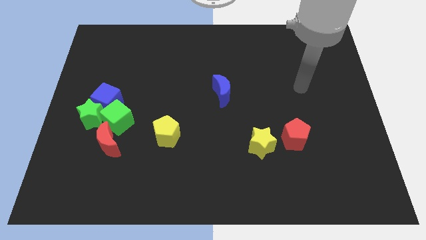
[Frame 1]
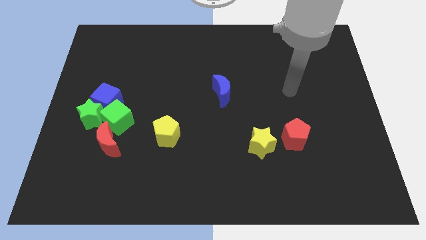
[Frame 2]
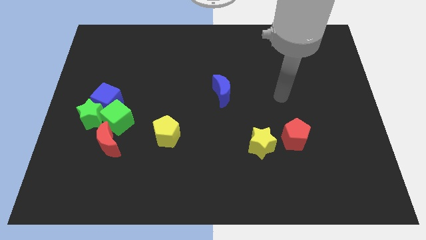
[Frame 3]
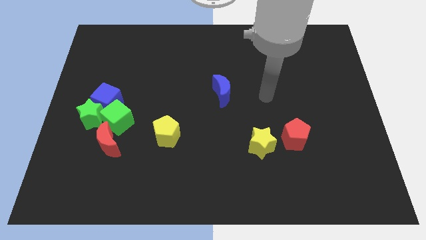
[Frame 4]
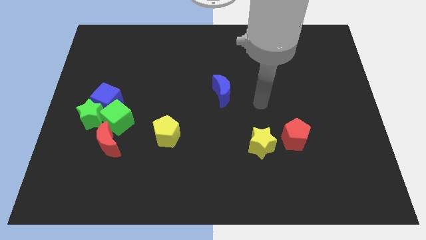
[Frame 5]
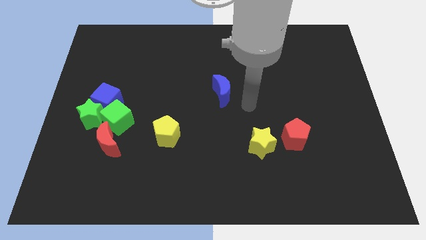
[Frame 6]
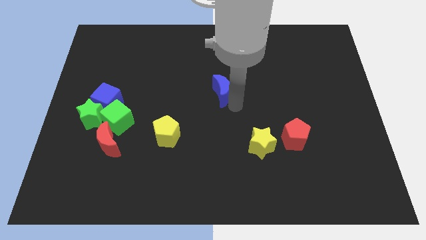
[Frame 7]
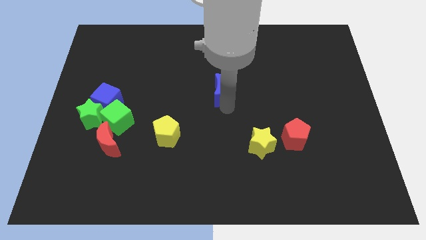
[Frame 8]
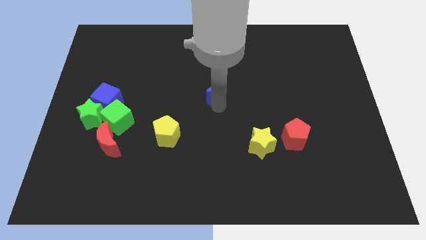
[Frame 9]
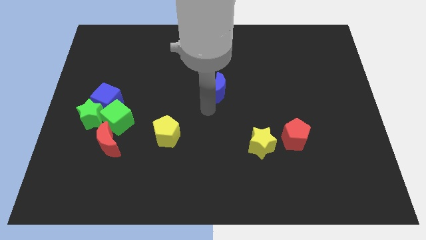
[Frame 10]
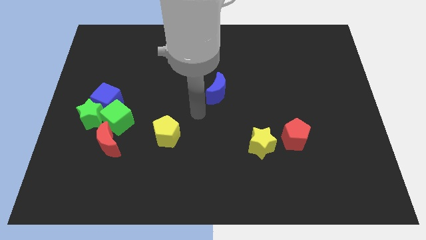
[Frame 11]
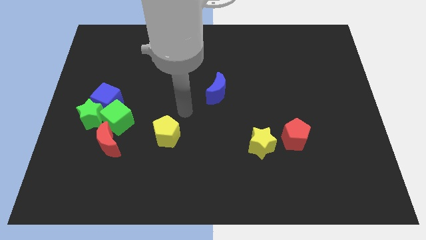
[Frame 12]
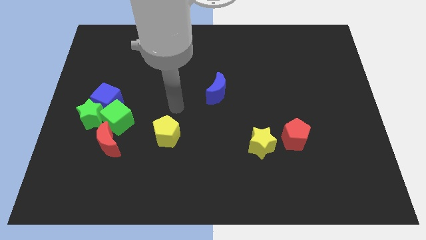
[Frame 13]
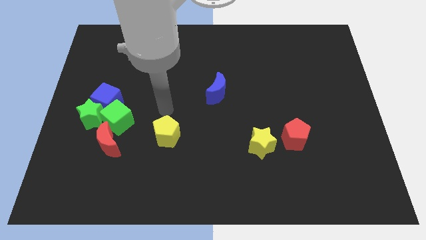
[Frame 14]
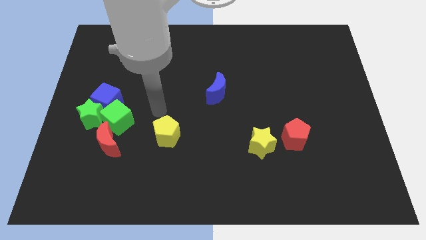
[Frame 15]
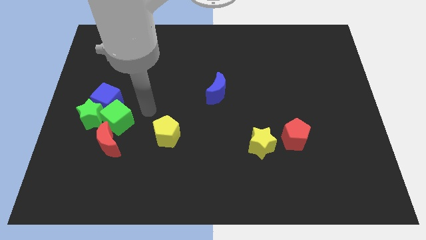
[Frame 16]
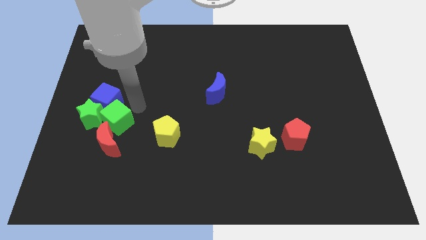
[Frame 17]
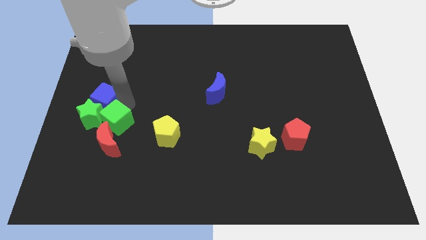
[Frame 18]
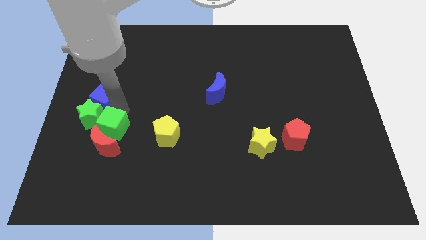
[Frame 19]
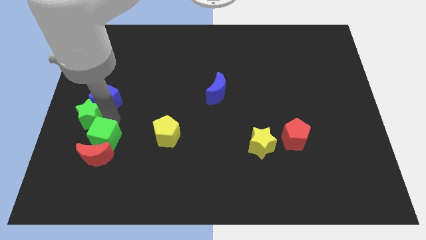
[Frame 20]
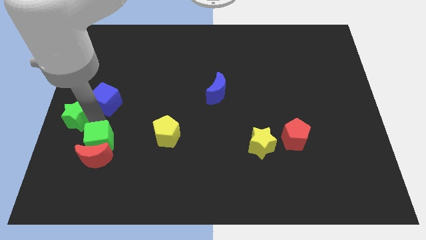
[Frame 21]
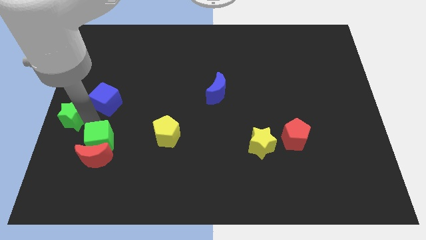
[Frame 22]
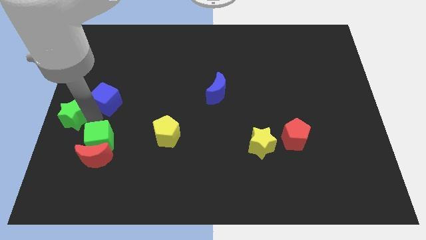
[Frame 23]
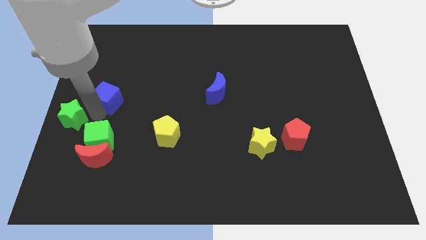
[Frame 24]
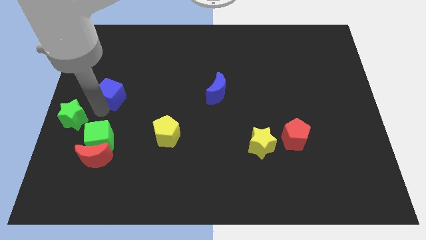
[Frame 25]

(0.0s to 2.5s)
move the blue cube away from the green star and green cube

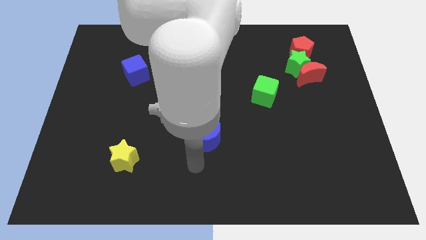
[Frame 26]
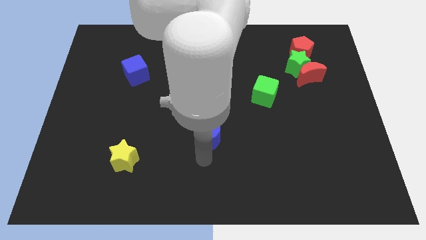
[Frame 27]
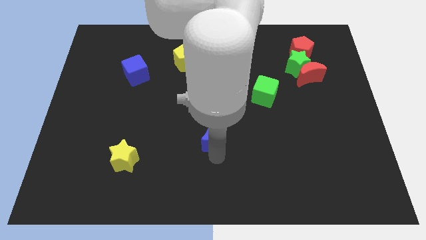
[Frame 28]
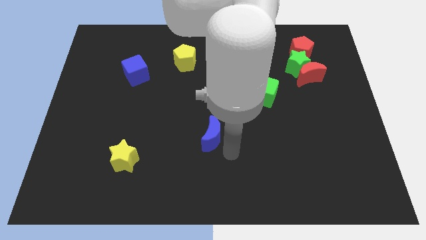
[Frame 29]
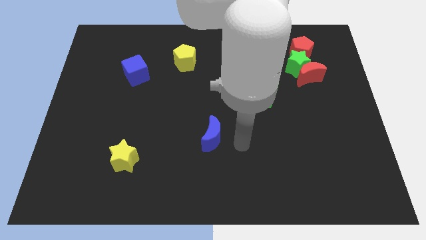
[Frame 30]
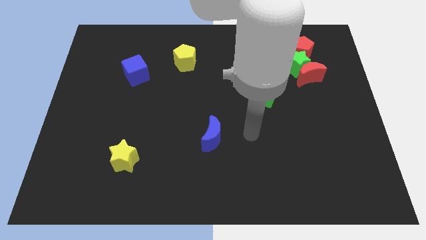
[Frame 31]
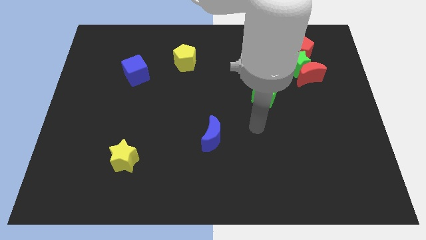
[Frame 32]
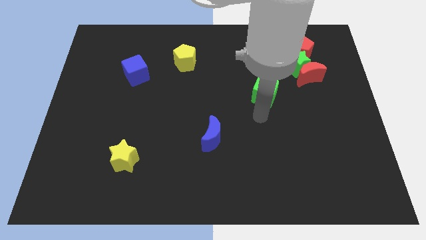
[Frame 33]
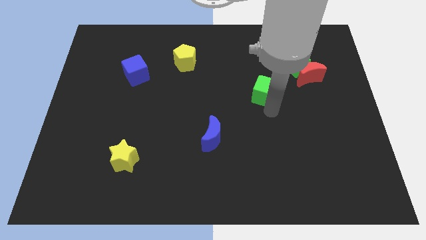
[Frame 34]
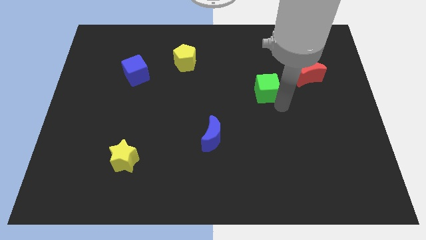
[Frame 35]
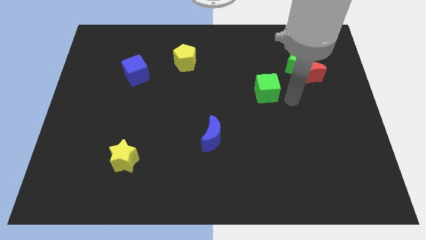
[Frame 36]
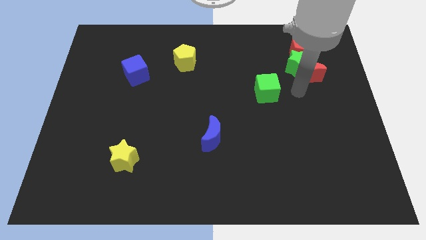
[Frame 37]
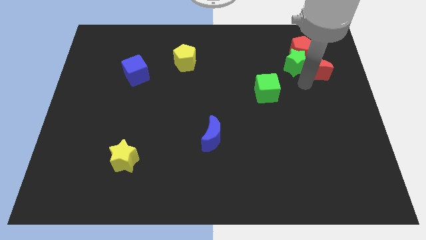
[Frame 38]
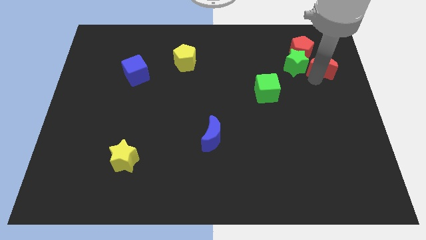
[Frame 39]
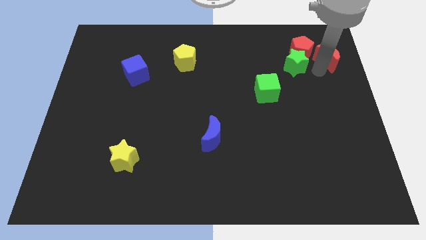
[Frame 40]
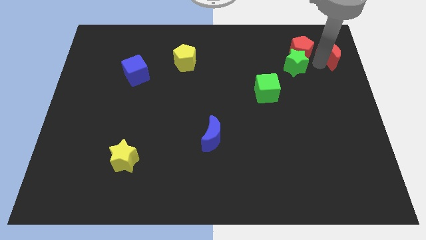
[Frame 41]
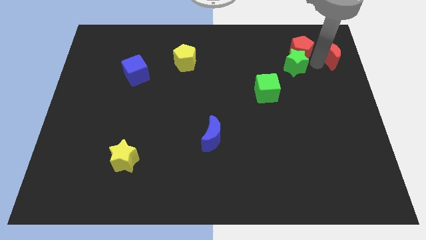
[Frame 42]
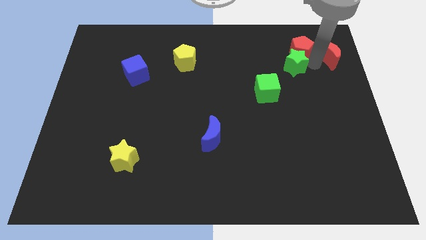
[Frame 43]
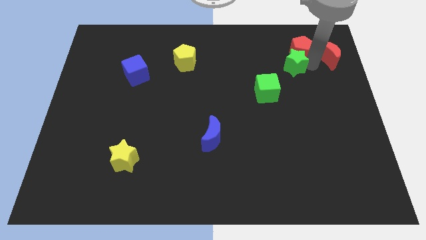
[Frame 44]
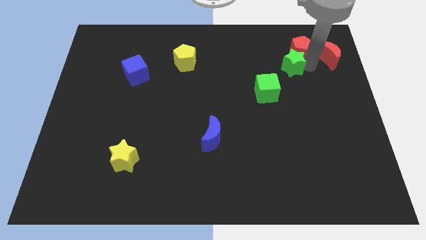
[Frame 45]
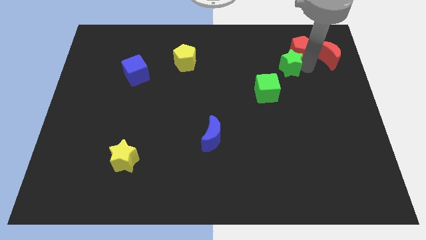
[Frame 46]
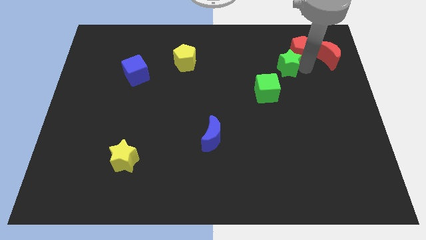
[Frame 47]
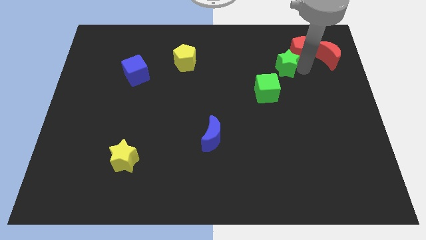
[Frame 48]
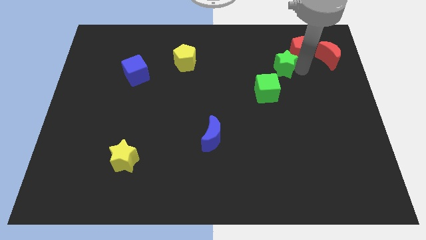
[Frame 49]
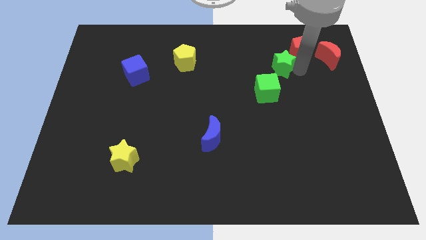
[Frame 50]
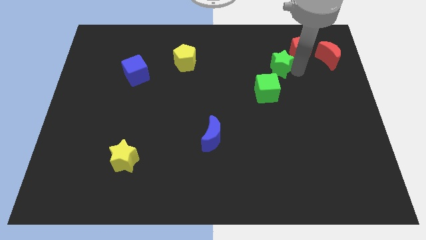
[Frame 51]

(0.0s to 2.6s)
pull the green star apart from the red moon and red pentagon

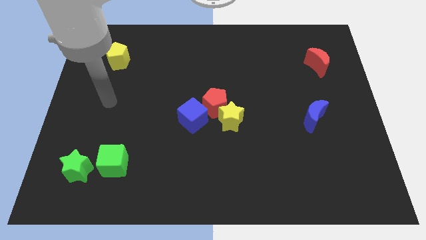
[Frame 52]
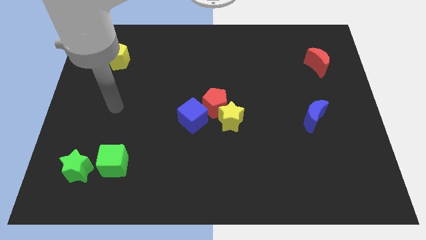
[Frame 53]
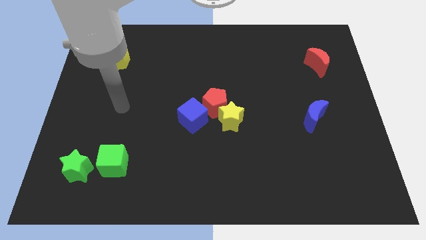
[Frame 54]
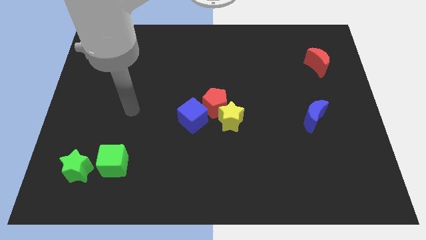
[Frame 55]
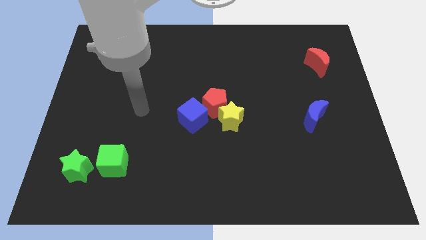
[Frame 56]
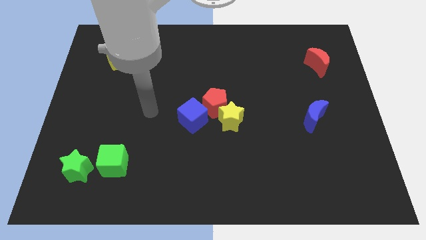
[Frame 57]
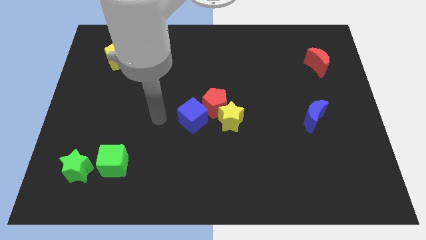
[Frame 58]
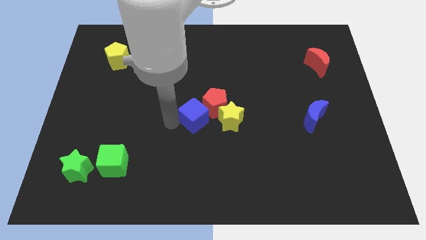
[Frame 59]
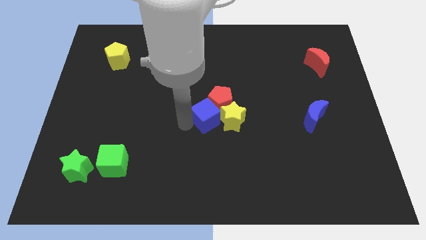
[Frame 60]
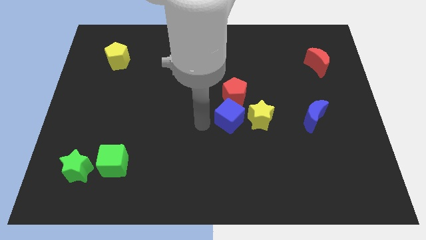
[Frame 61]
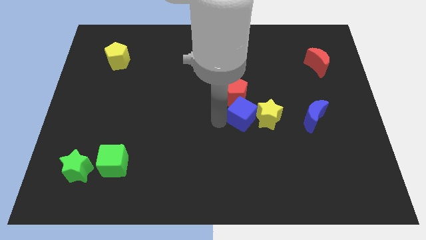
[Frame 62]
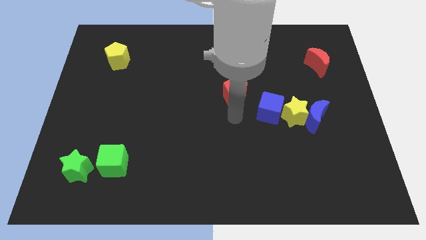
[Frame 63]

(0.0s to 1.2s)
separate the red pentagon from the yellow star and blue cube

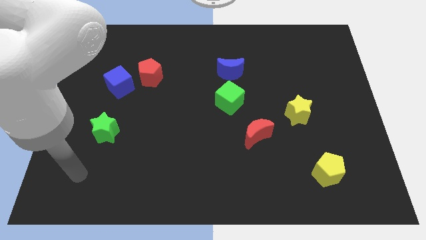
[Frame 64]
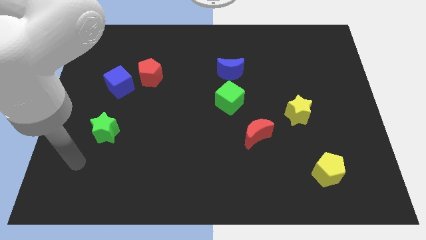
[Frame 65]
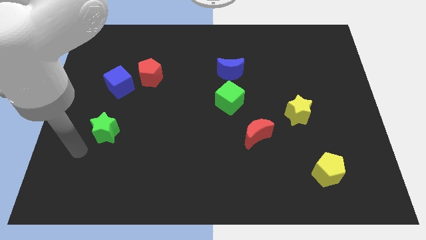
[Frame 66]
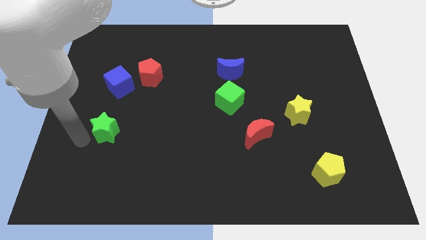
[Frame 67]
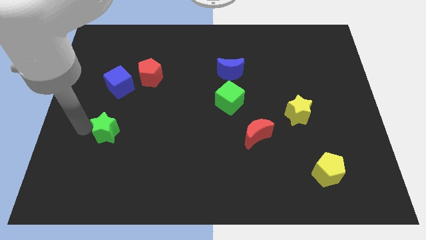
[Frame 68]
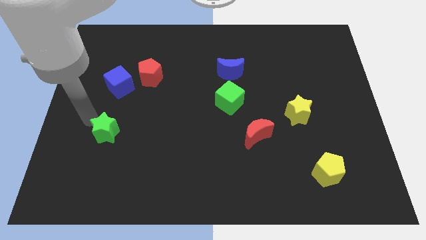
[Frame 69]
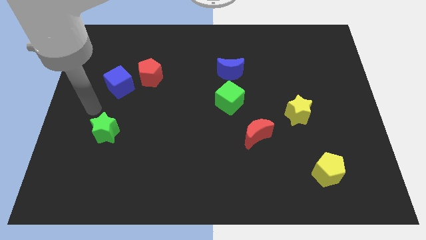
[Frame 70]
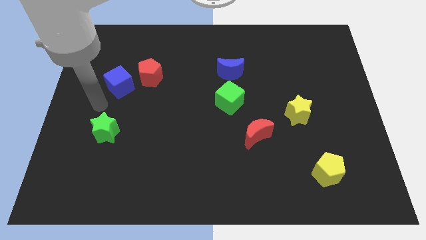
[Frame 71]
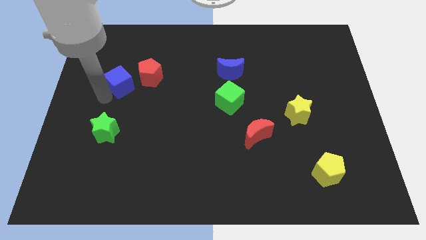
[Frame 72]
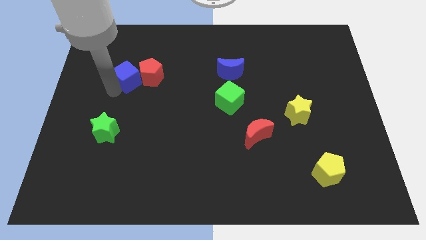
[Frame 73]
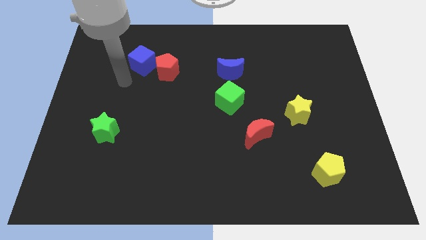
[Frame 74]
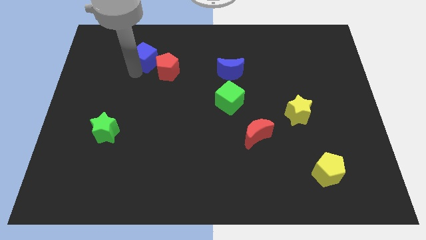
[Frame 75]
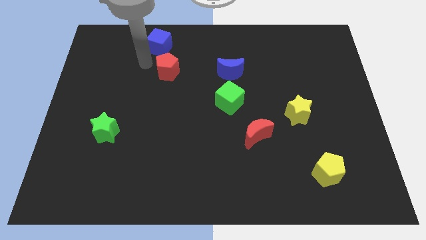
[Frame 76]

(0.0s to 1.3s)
move the red pentagon away from the blue cube

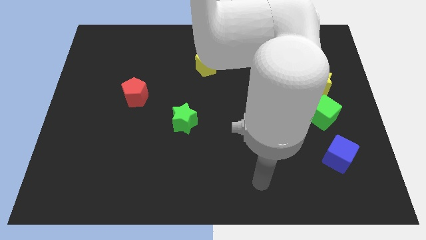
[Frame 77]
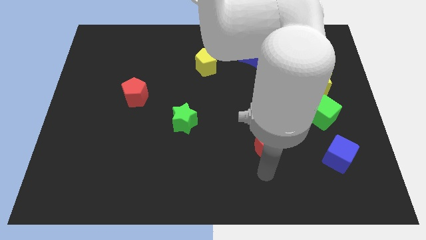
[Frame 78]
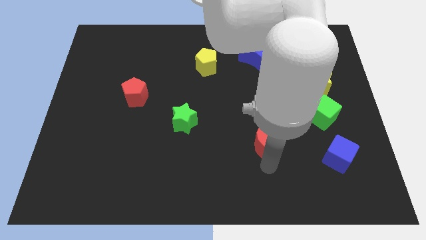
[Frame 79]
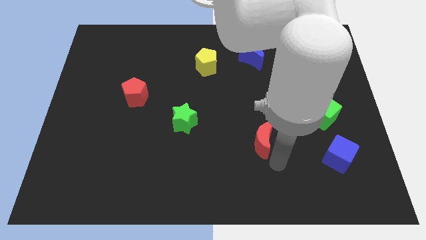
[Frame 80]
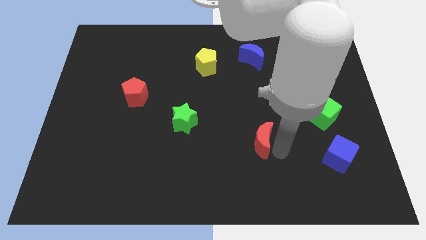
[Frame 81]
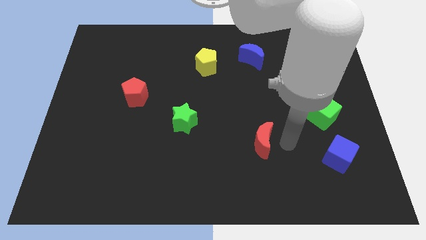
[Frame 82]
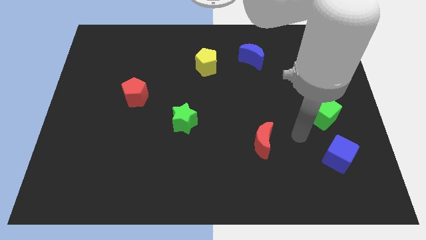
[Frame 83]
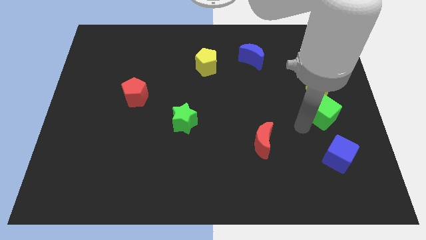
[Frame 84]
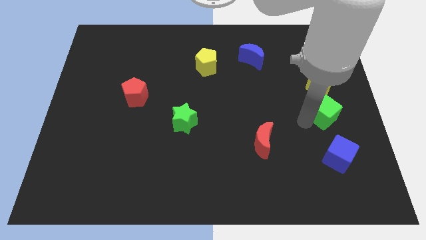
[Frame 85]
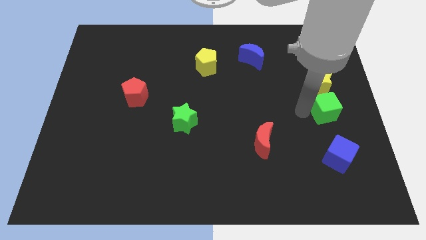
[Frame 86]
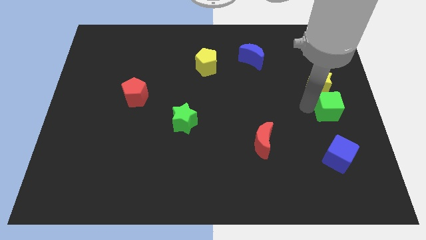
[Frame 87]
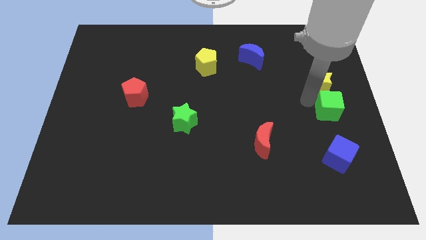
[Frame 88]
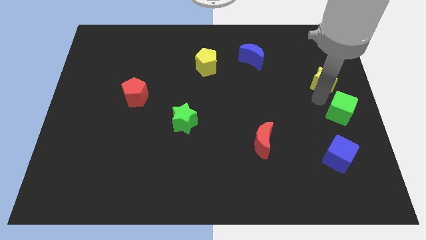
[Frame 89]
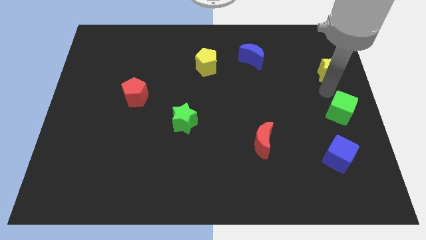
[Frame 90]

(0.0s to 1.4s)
separate the green cube from the yellow star

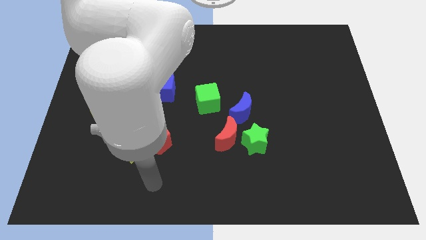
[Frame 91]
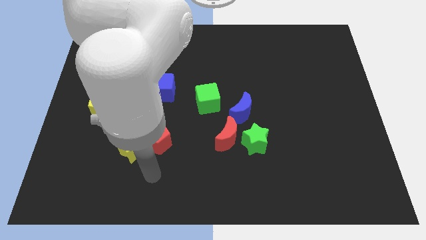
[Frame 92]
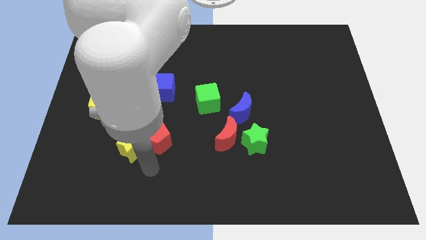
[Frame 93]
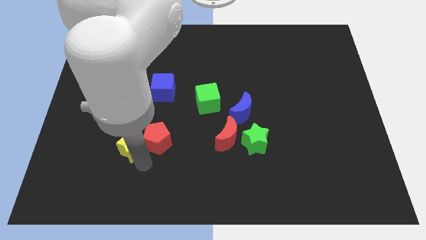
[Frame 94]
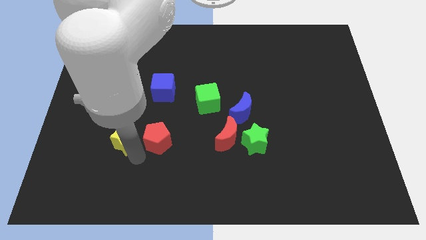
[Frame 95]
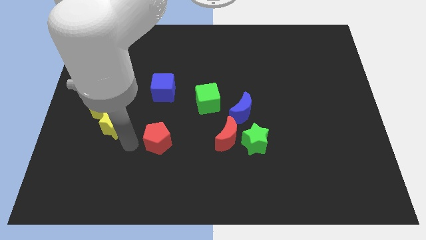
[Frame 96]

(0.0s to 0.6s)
pull the red pentagon apart from the yellow star
